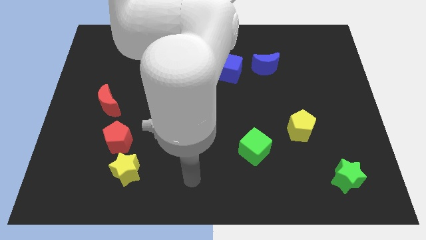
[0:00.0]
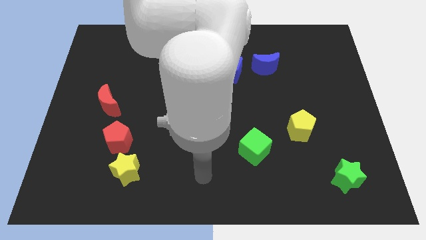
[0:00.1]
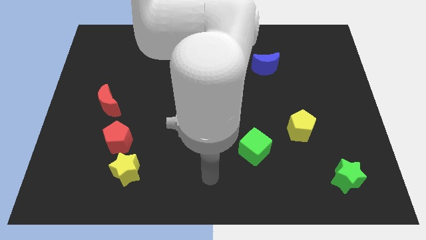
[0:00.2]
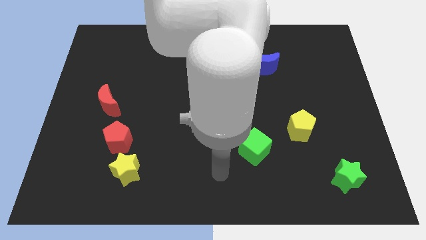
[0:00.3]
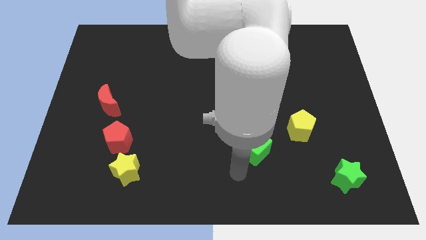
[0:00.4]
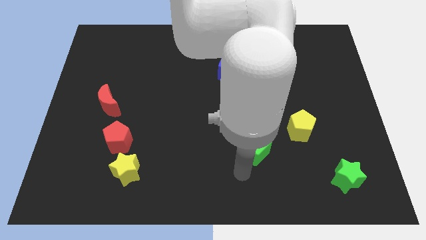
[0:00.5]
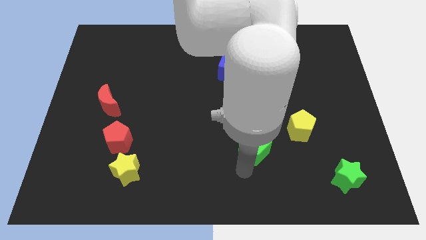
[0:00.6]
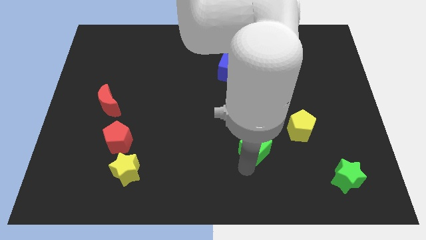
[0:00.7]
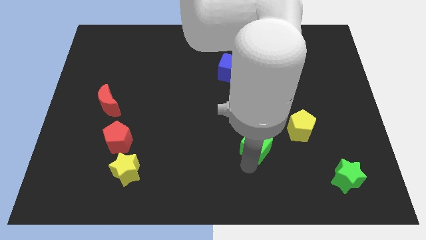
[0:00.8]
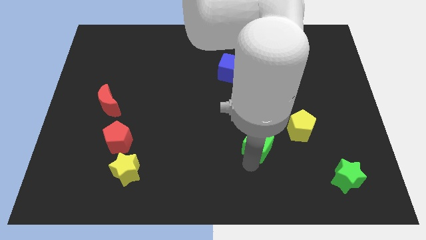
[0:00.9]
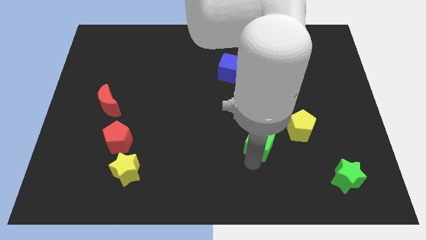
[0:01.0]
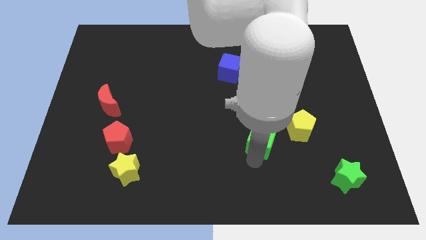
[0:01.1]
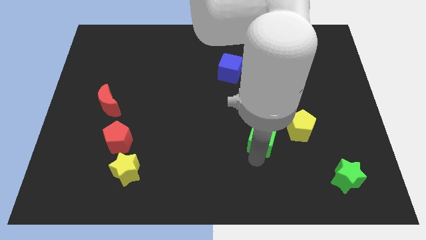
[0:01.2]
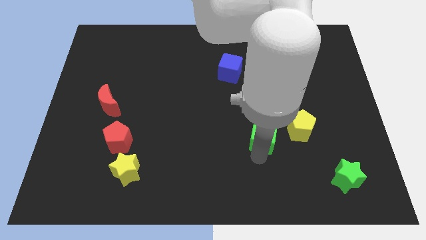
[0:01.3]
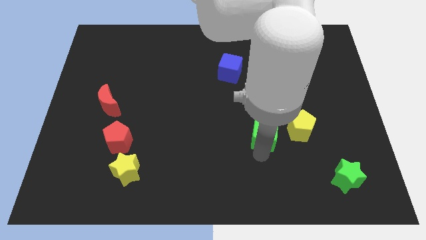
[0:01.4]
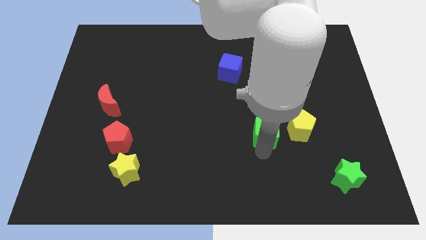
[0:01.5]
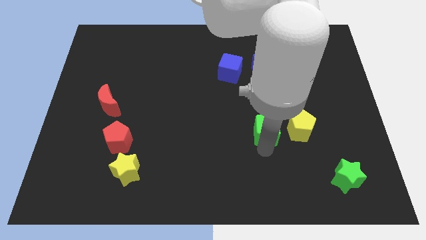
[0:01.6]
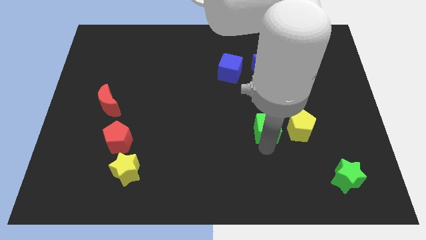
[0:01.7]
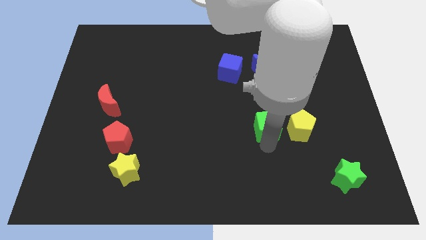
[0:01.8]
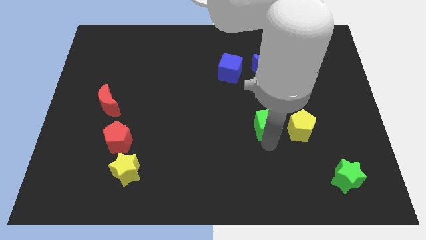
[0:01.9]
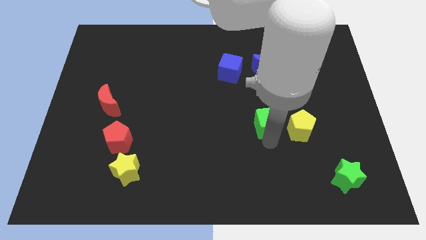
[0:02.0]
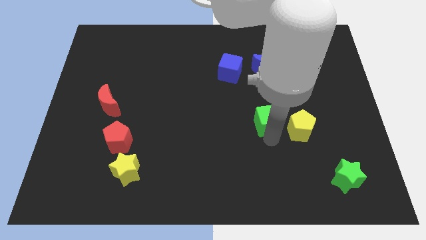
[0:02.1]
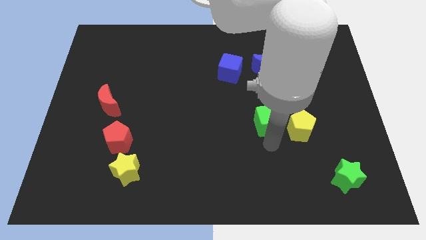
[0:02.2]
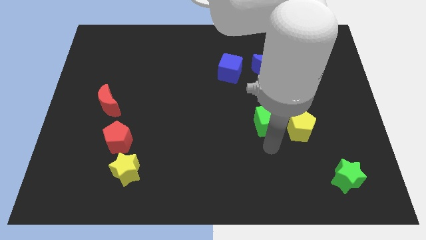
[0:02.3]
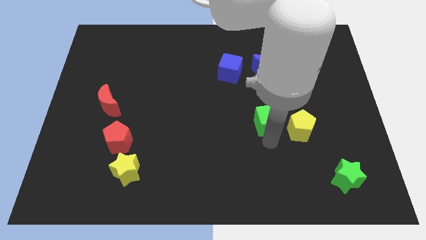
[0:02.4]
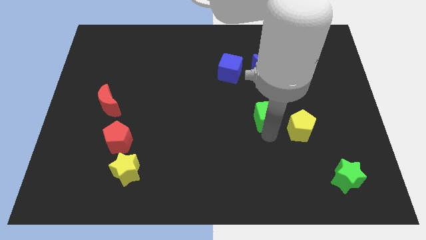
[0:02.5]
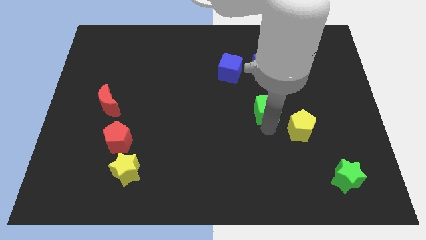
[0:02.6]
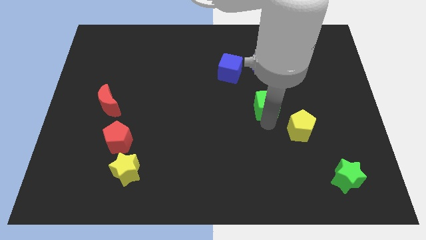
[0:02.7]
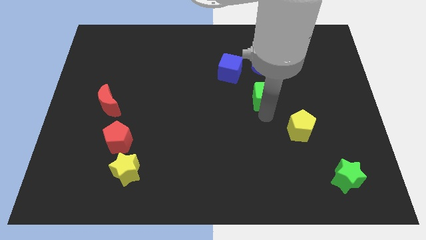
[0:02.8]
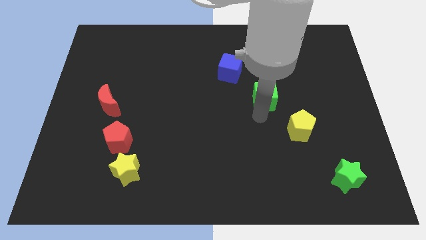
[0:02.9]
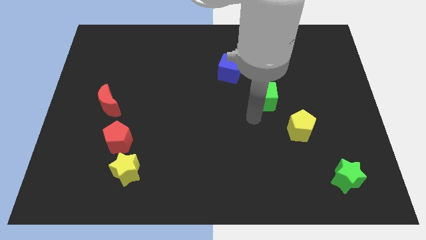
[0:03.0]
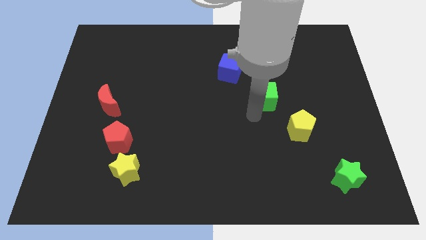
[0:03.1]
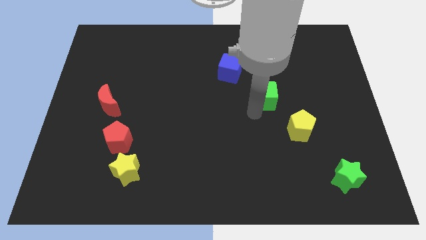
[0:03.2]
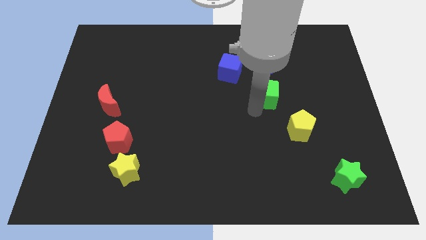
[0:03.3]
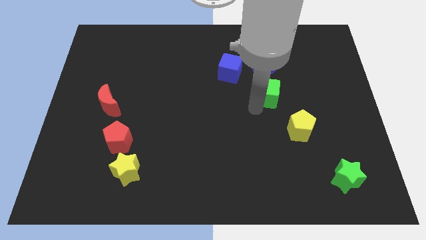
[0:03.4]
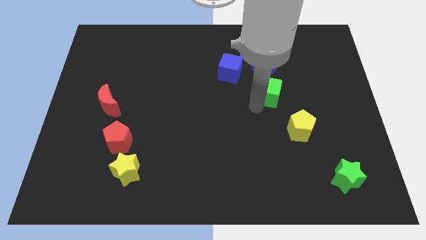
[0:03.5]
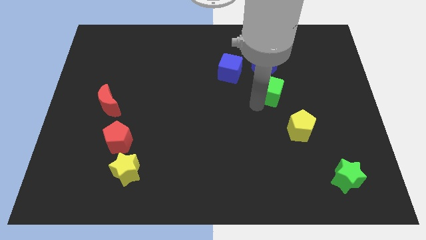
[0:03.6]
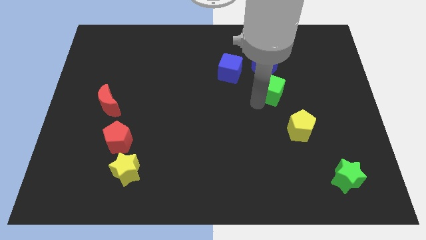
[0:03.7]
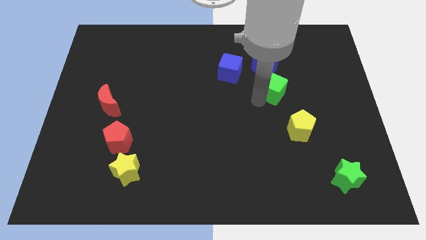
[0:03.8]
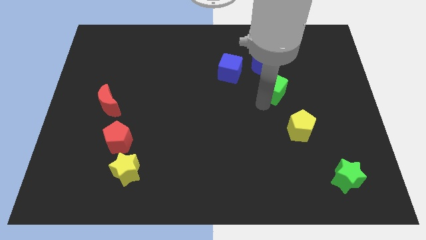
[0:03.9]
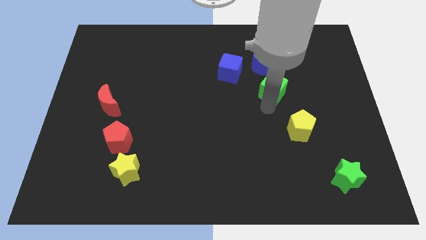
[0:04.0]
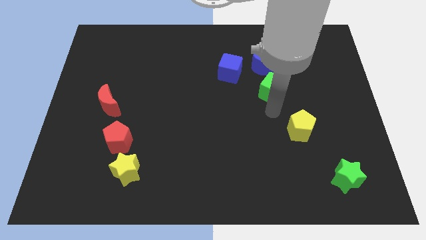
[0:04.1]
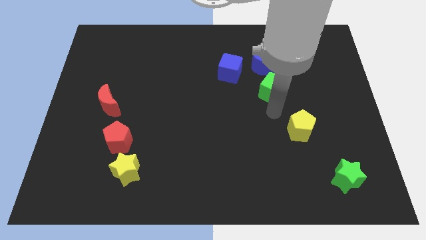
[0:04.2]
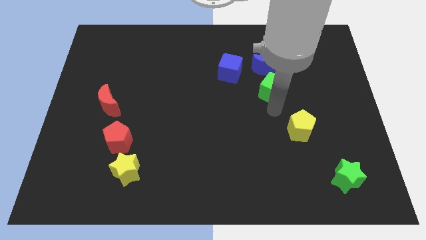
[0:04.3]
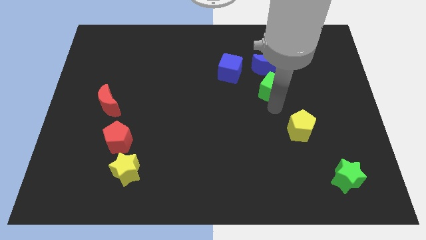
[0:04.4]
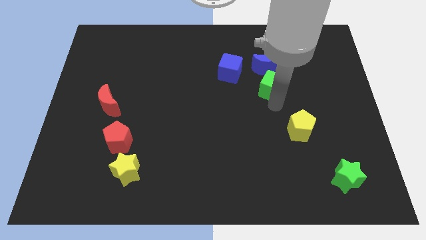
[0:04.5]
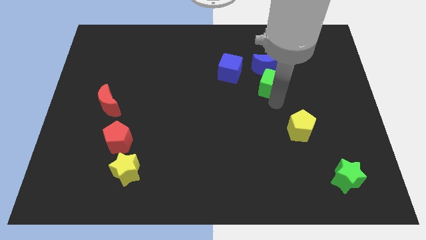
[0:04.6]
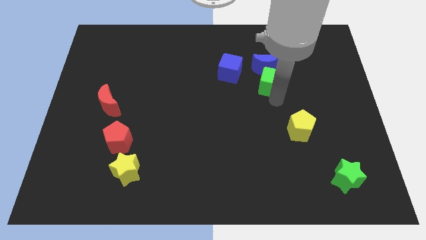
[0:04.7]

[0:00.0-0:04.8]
put the green cube to the right of the blue cube

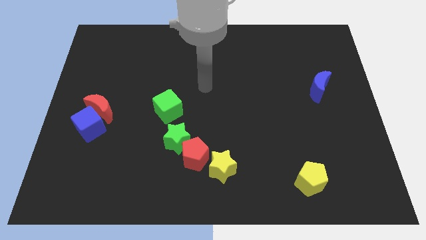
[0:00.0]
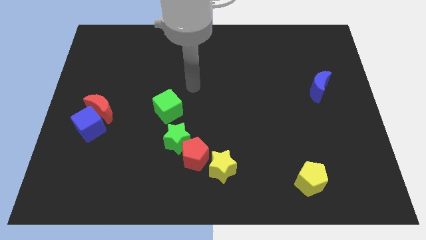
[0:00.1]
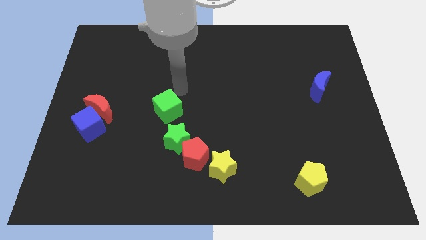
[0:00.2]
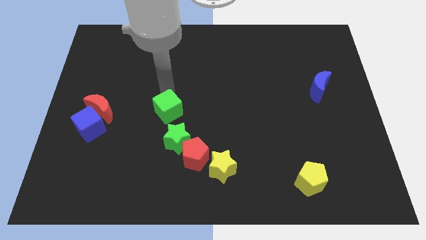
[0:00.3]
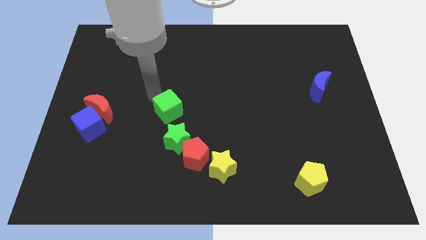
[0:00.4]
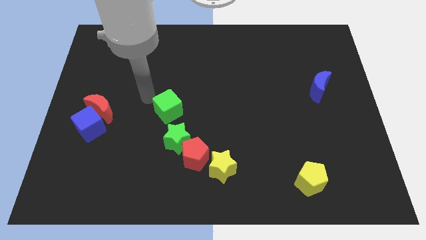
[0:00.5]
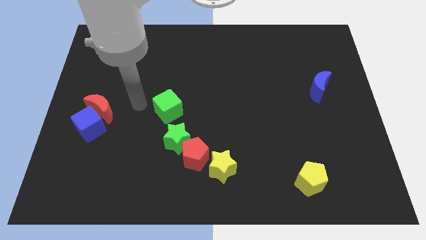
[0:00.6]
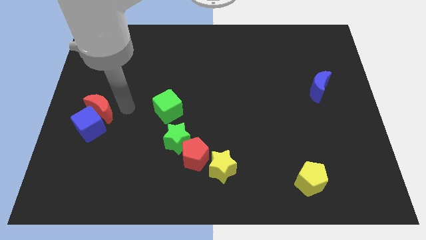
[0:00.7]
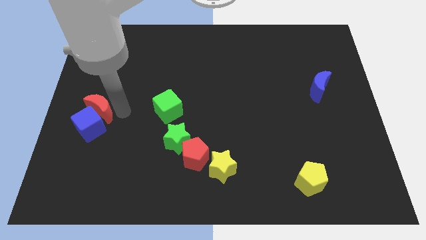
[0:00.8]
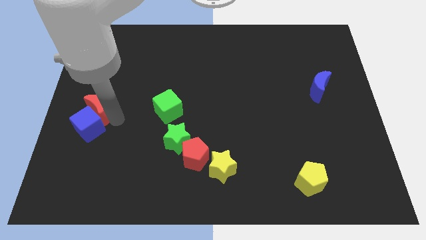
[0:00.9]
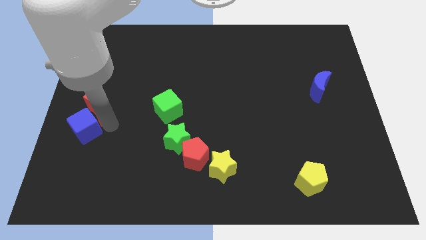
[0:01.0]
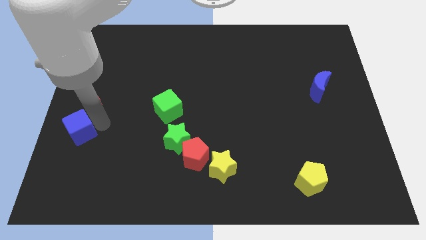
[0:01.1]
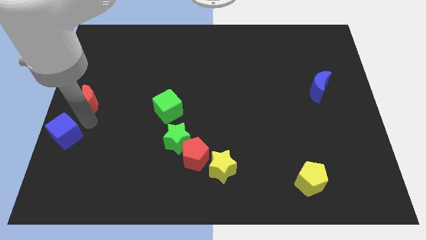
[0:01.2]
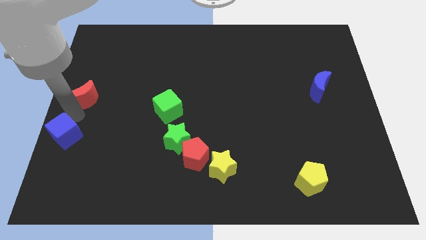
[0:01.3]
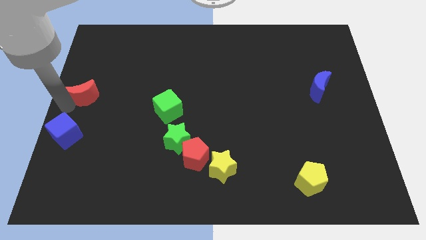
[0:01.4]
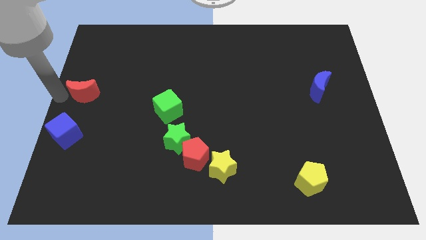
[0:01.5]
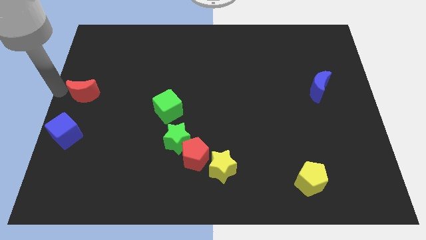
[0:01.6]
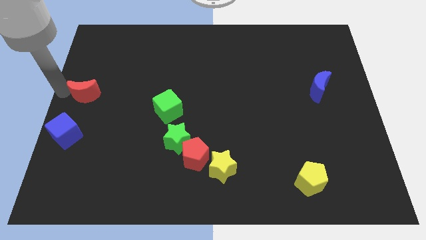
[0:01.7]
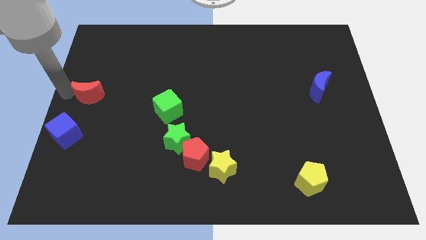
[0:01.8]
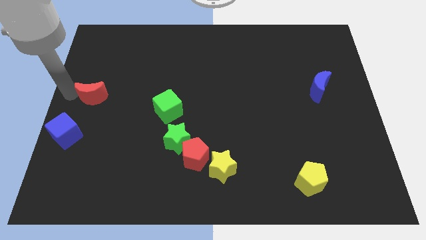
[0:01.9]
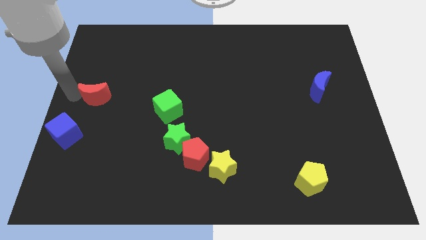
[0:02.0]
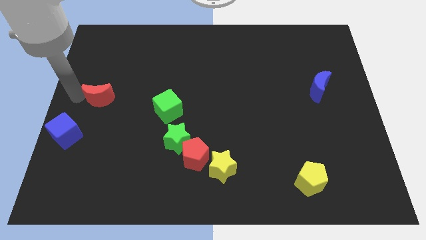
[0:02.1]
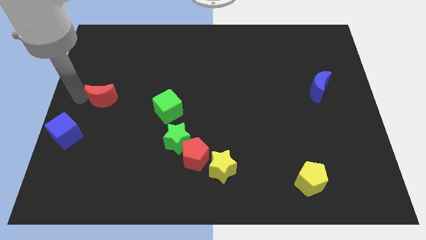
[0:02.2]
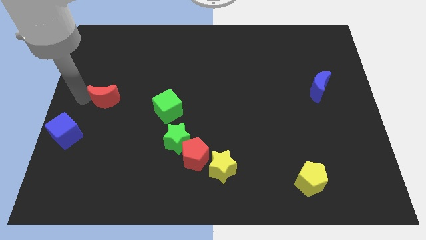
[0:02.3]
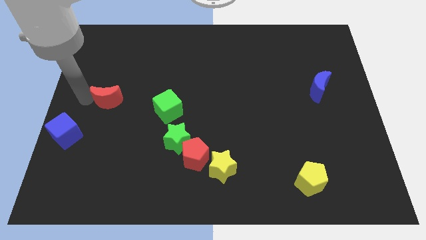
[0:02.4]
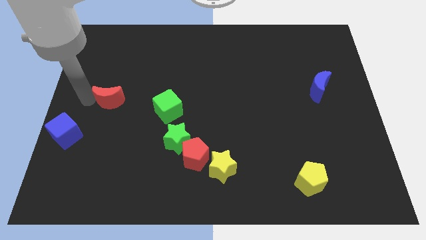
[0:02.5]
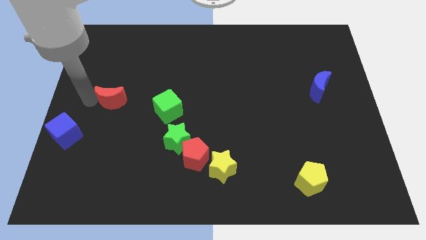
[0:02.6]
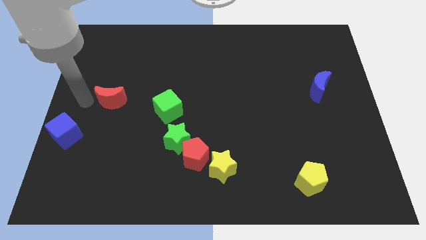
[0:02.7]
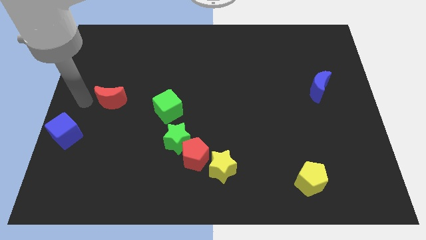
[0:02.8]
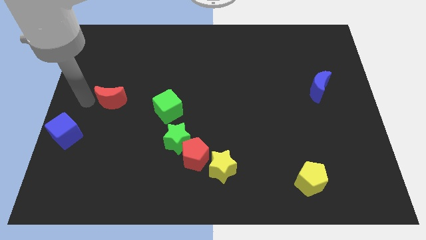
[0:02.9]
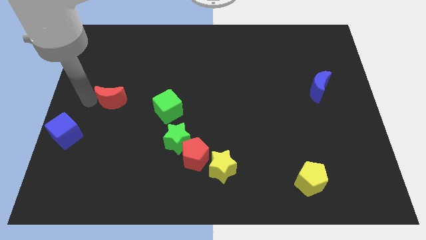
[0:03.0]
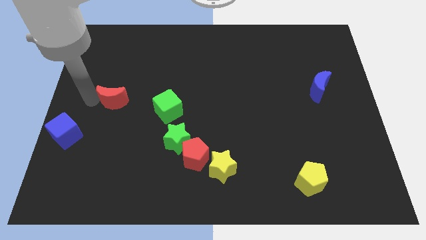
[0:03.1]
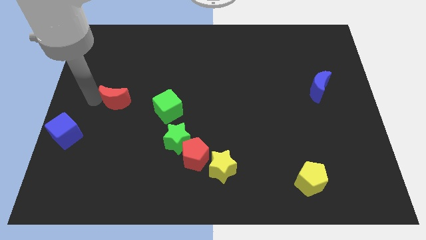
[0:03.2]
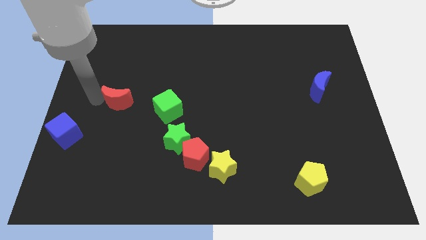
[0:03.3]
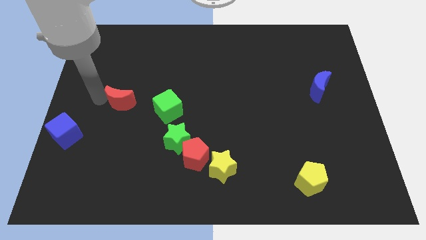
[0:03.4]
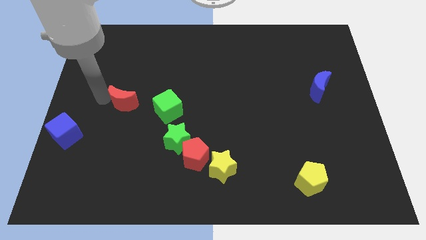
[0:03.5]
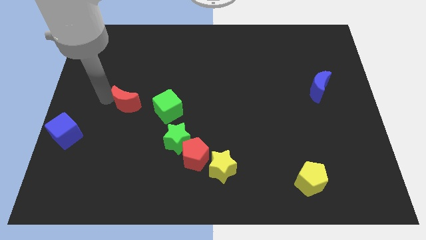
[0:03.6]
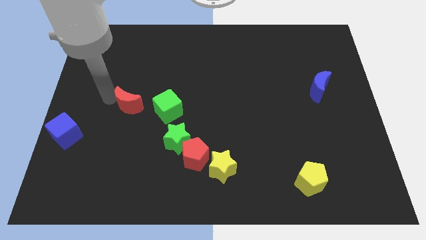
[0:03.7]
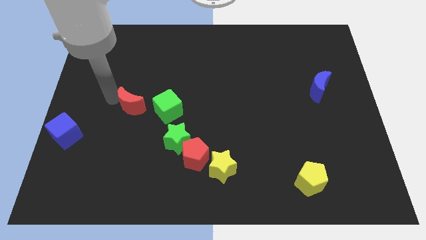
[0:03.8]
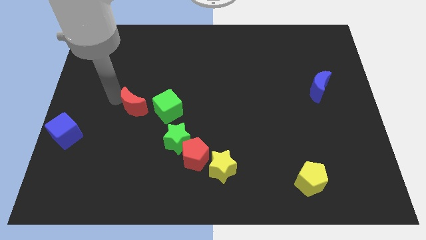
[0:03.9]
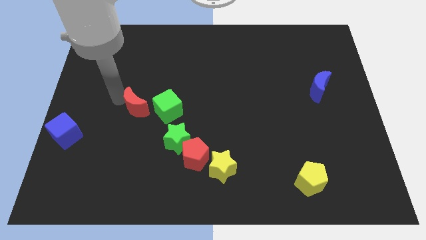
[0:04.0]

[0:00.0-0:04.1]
push the red moon to the top left of the green cube
